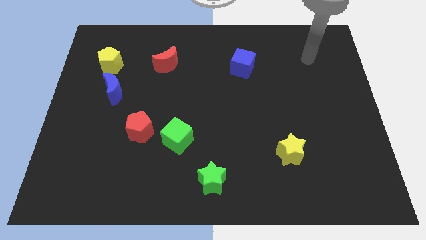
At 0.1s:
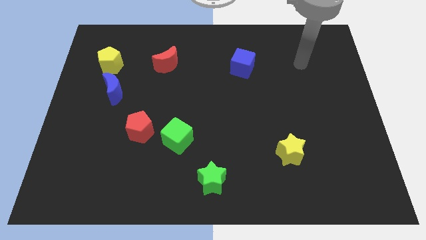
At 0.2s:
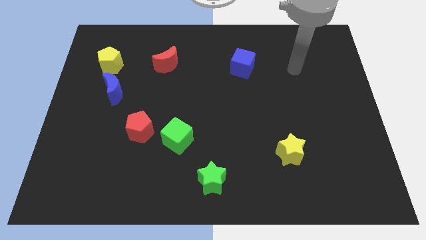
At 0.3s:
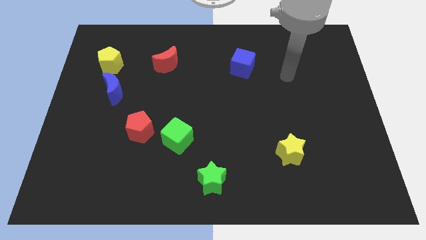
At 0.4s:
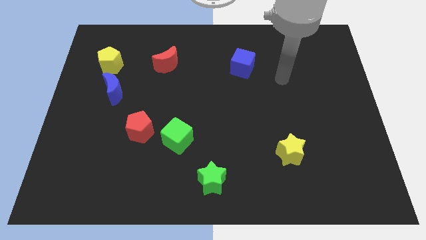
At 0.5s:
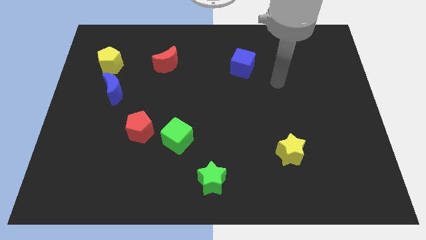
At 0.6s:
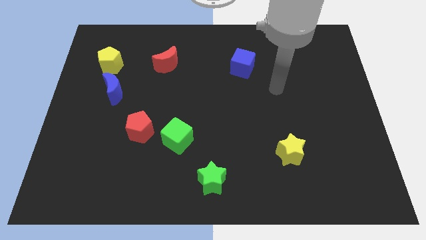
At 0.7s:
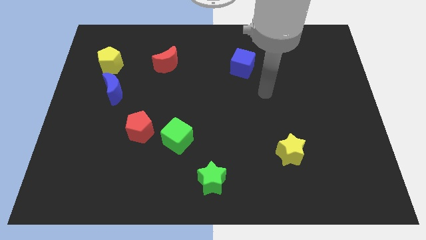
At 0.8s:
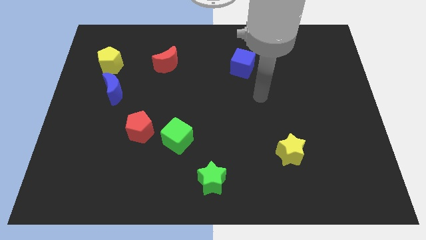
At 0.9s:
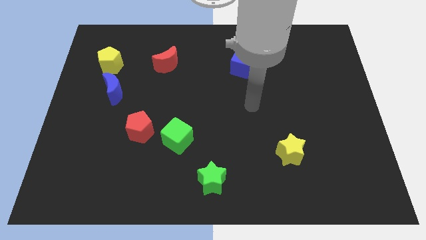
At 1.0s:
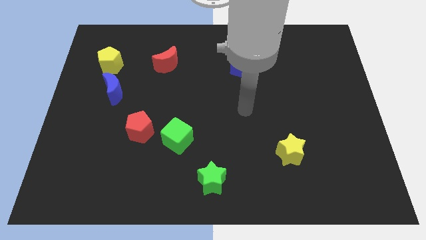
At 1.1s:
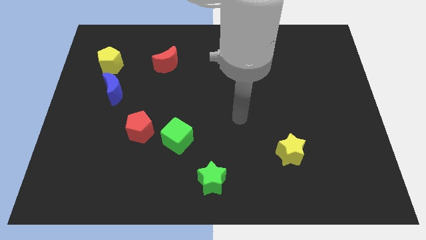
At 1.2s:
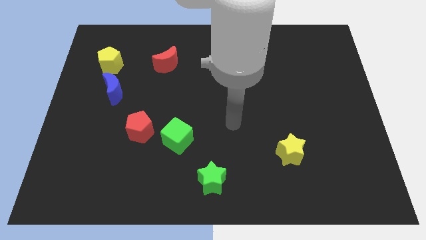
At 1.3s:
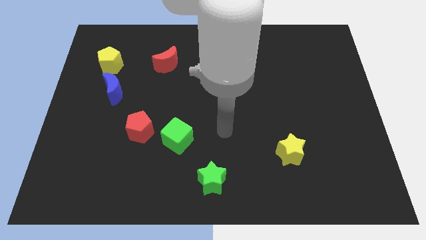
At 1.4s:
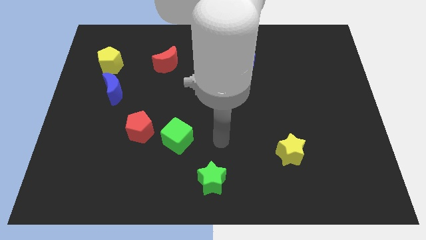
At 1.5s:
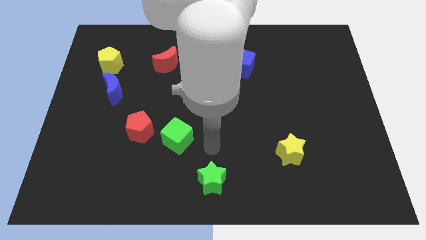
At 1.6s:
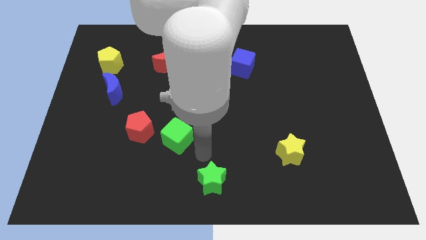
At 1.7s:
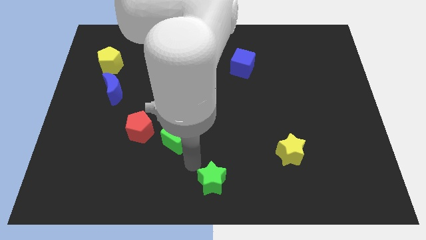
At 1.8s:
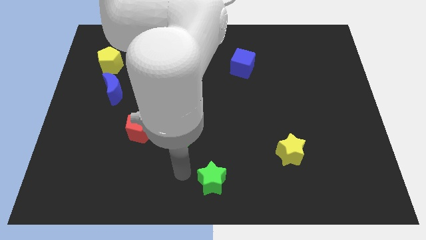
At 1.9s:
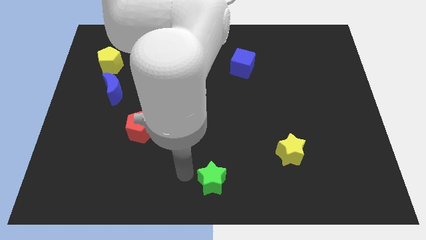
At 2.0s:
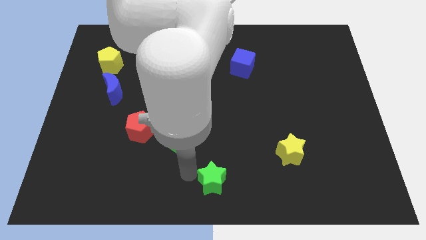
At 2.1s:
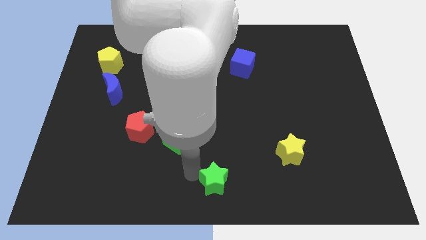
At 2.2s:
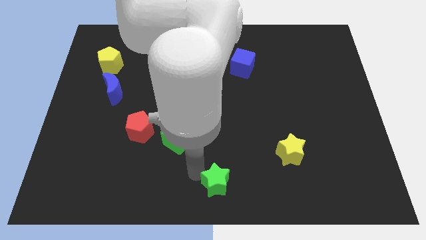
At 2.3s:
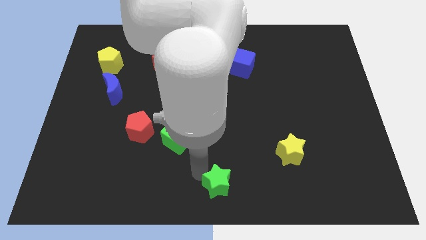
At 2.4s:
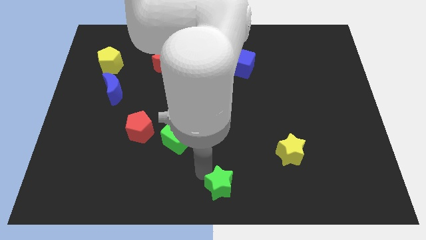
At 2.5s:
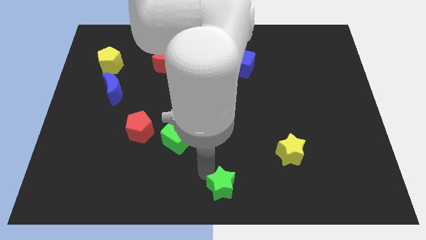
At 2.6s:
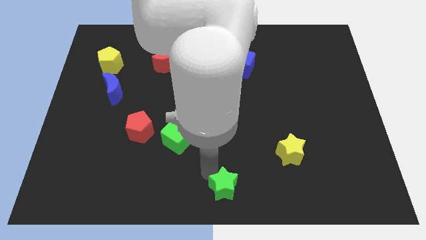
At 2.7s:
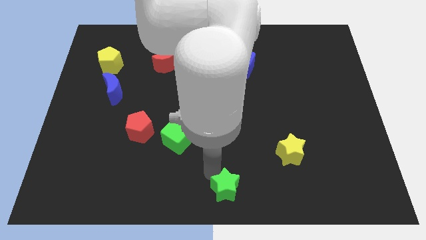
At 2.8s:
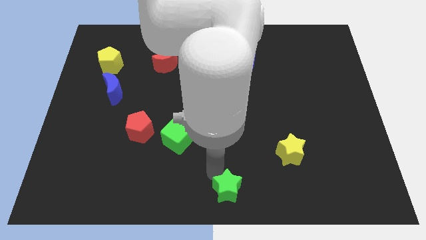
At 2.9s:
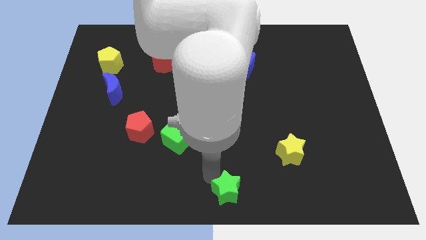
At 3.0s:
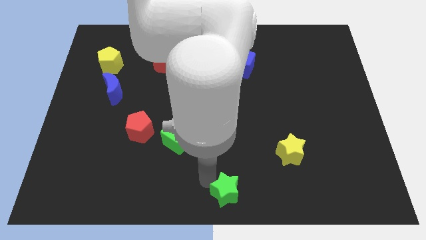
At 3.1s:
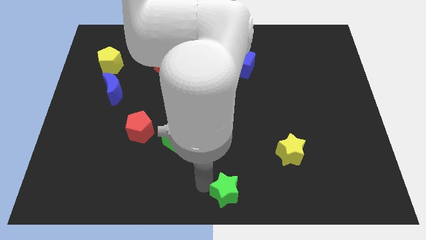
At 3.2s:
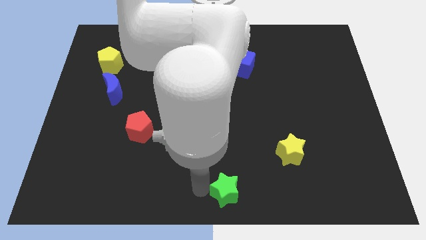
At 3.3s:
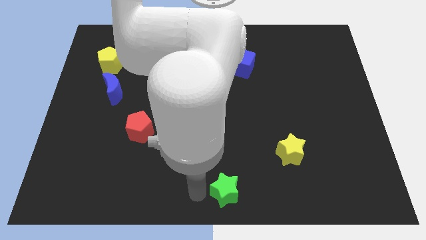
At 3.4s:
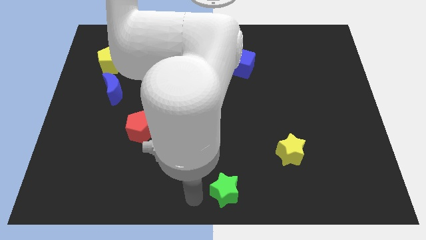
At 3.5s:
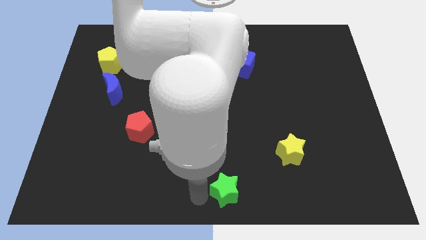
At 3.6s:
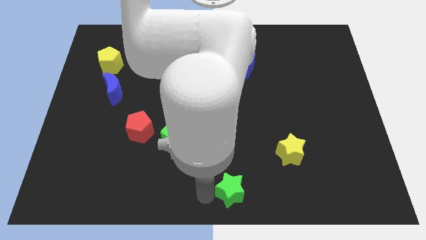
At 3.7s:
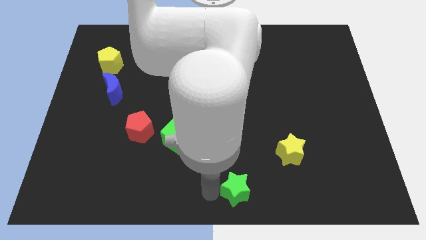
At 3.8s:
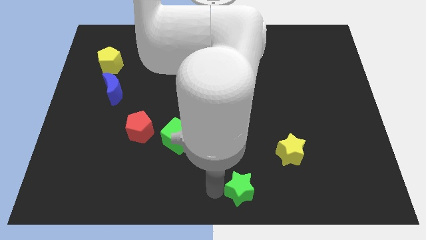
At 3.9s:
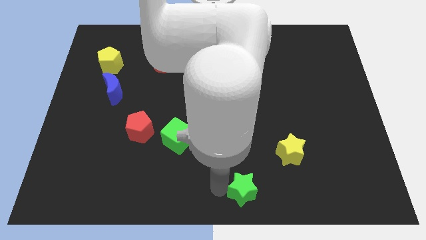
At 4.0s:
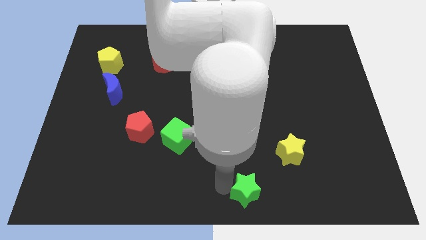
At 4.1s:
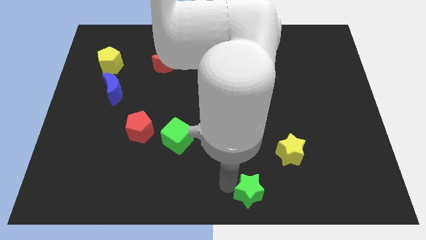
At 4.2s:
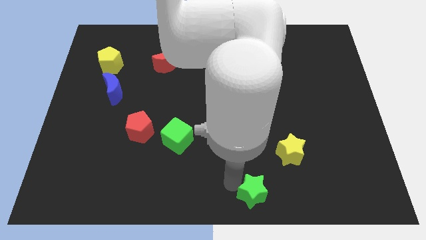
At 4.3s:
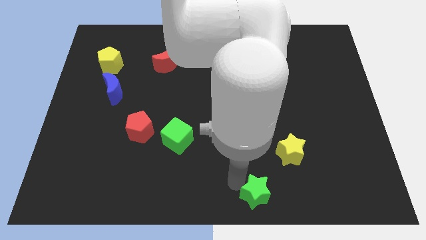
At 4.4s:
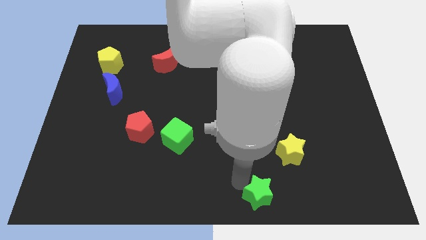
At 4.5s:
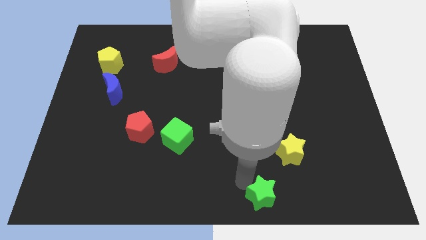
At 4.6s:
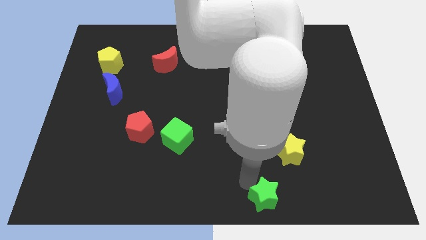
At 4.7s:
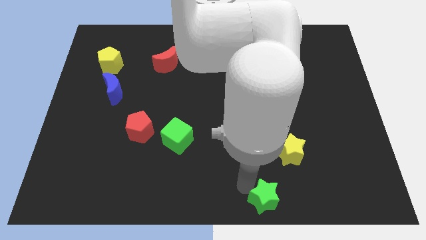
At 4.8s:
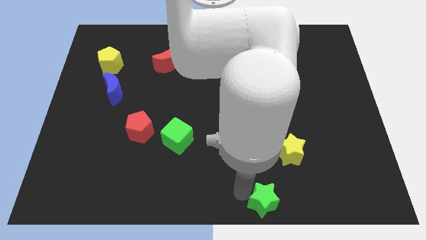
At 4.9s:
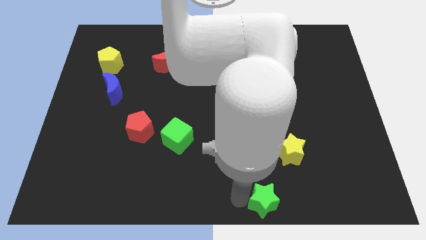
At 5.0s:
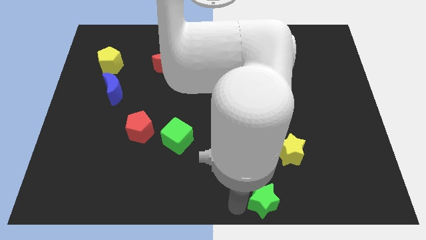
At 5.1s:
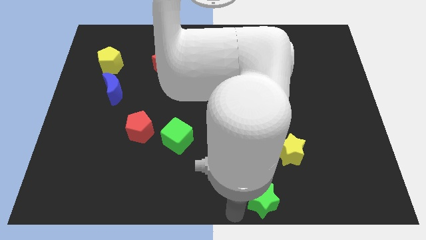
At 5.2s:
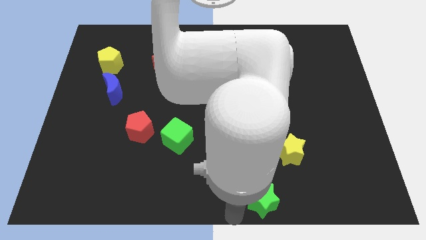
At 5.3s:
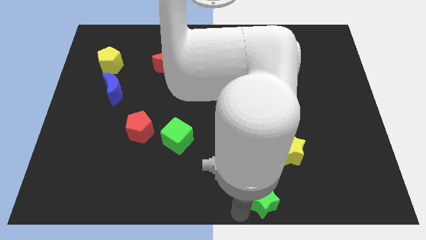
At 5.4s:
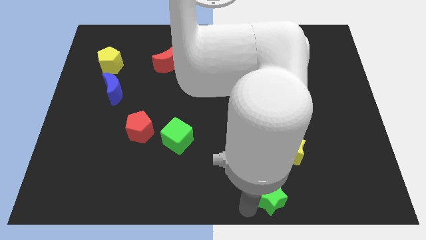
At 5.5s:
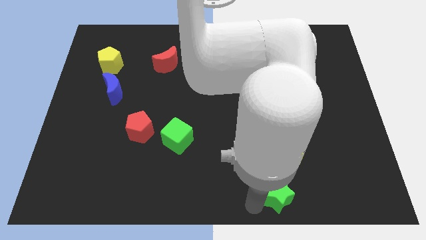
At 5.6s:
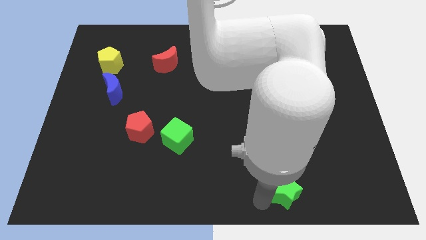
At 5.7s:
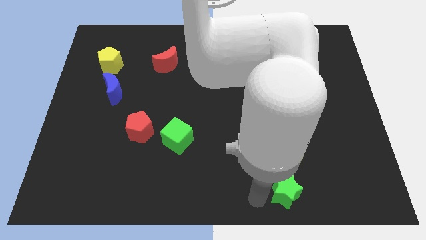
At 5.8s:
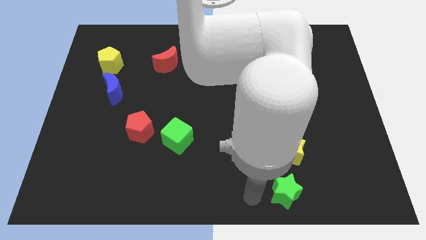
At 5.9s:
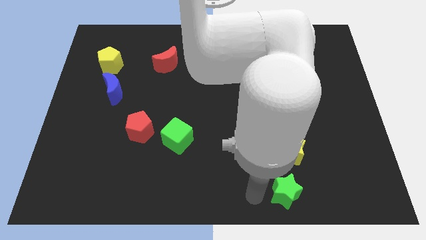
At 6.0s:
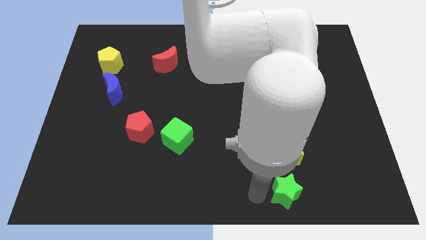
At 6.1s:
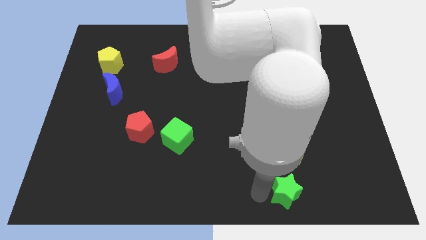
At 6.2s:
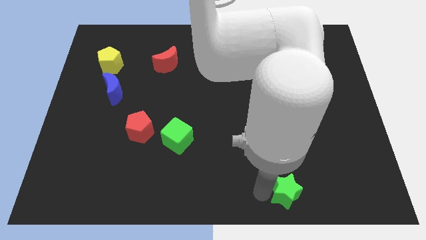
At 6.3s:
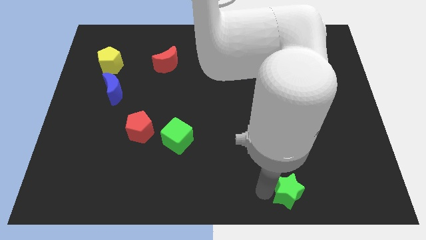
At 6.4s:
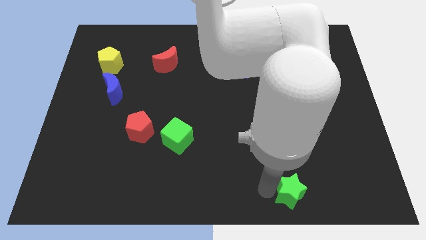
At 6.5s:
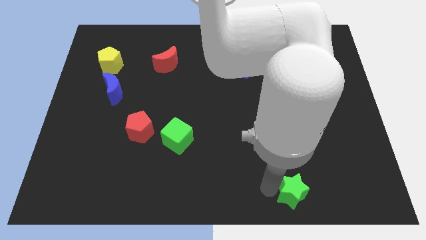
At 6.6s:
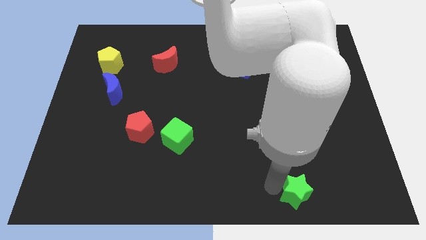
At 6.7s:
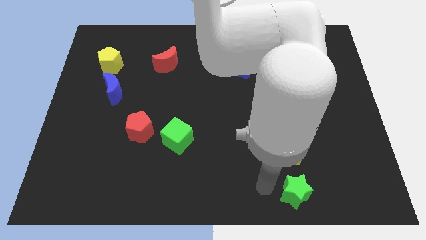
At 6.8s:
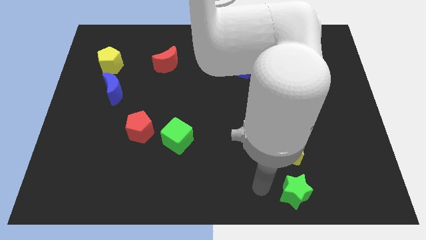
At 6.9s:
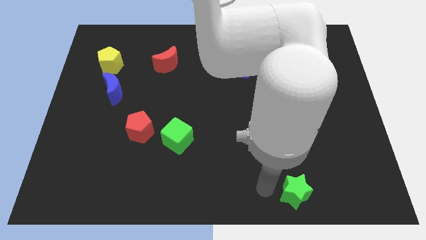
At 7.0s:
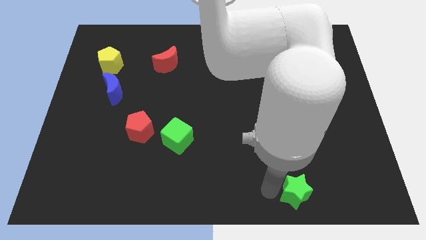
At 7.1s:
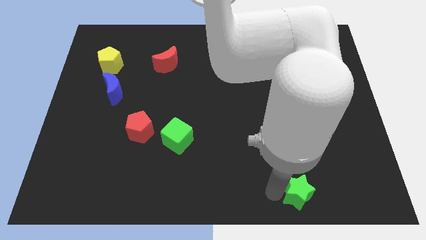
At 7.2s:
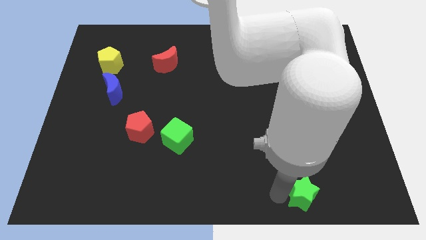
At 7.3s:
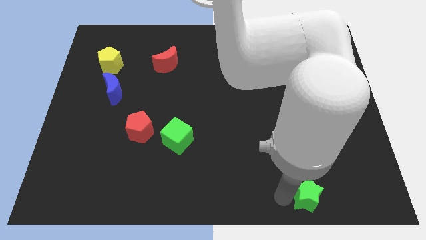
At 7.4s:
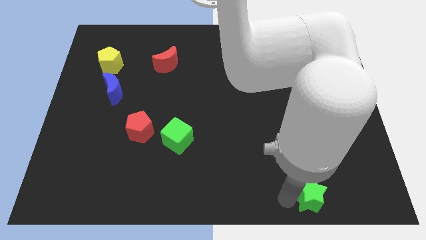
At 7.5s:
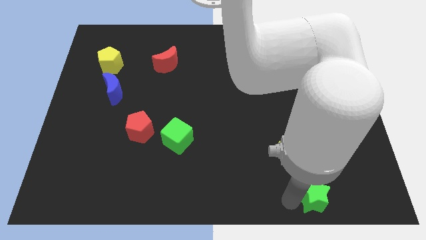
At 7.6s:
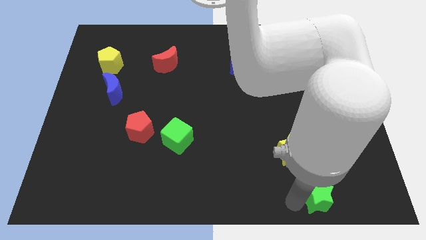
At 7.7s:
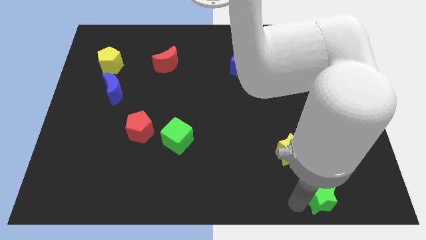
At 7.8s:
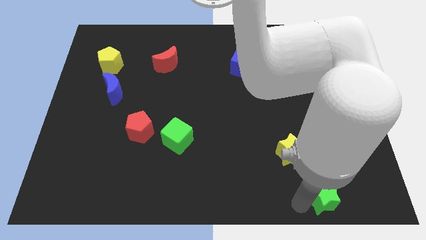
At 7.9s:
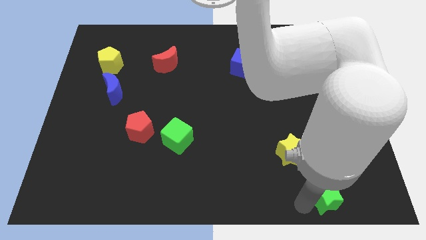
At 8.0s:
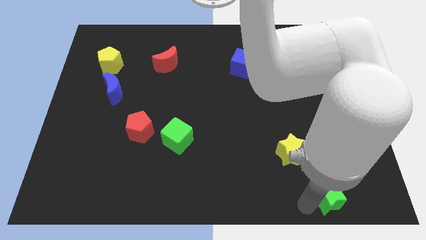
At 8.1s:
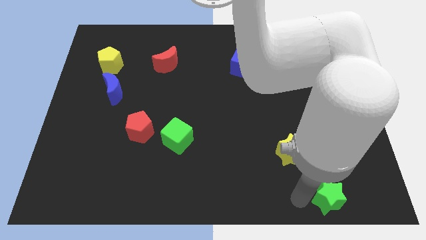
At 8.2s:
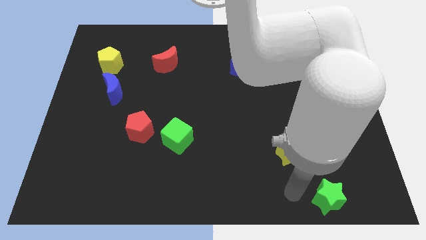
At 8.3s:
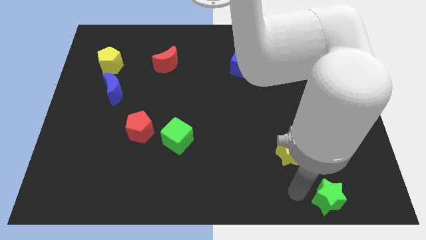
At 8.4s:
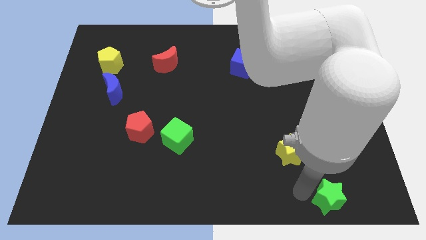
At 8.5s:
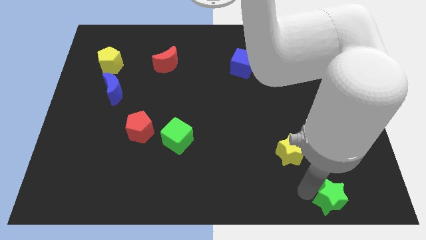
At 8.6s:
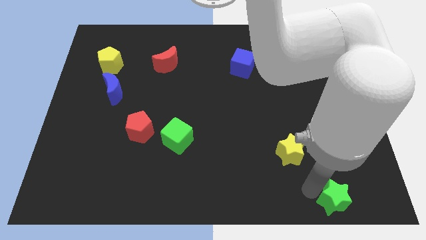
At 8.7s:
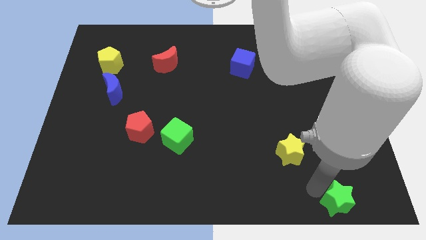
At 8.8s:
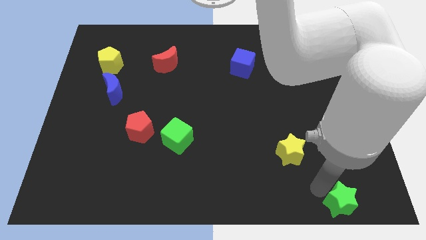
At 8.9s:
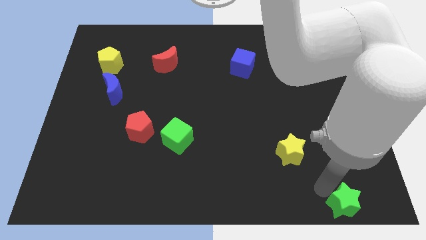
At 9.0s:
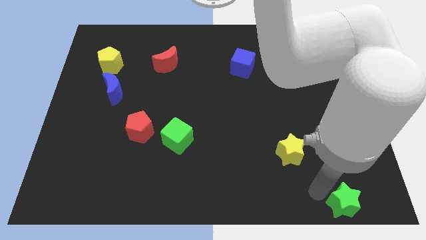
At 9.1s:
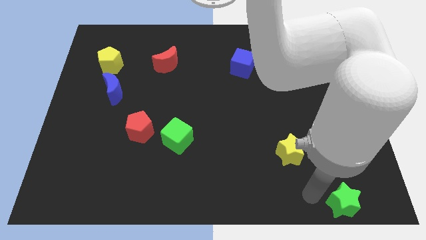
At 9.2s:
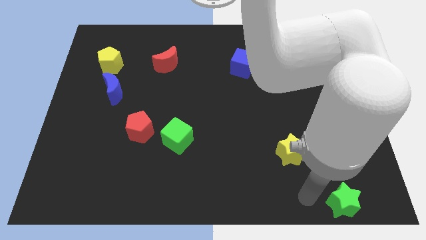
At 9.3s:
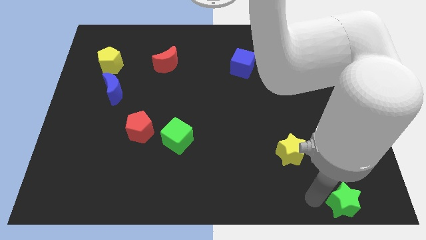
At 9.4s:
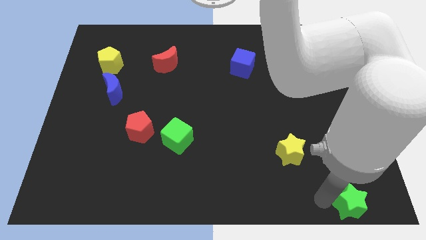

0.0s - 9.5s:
put the green star to the bottom right
